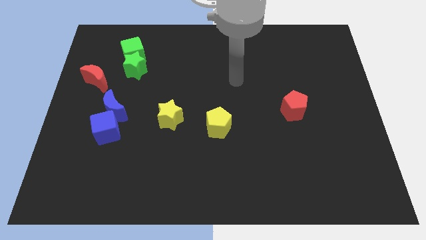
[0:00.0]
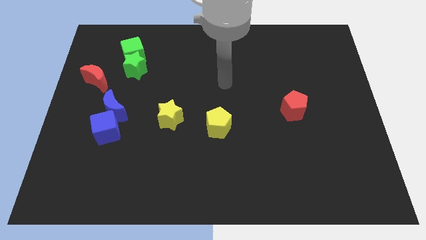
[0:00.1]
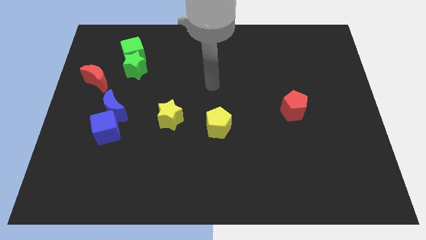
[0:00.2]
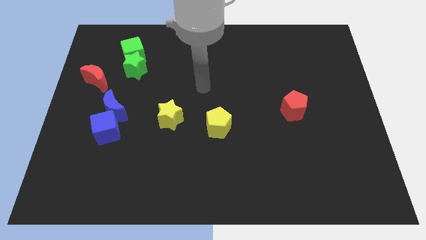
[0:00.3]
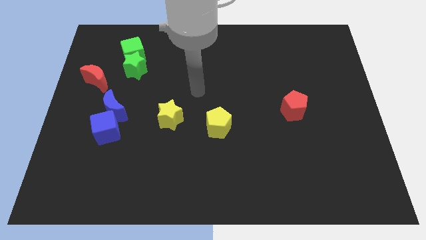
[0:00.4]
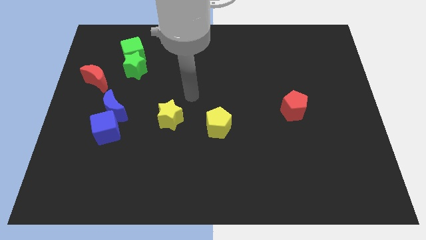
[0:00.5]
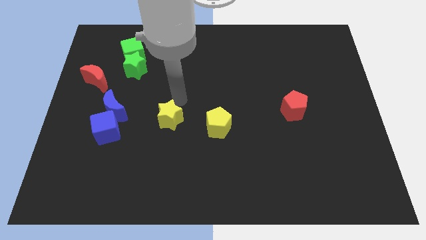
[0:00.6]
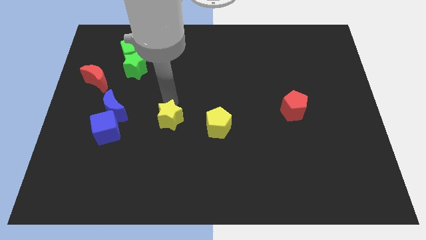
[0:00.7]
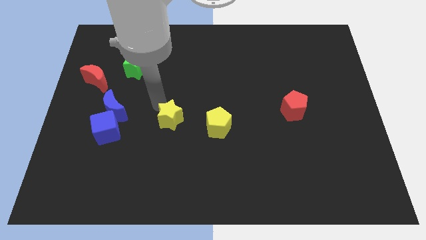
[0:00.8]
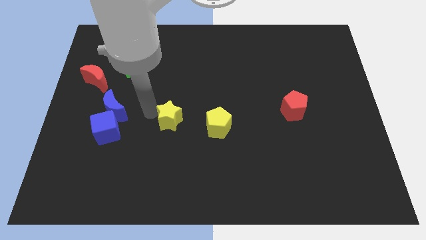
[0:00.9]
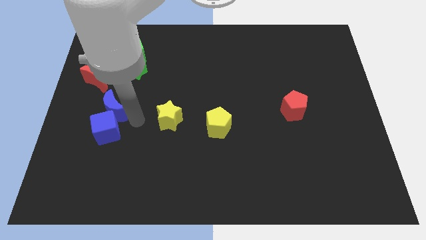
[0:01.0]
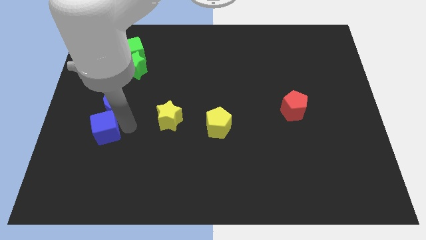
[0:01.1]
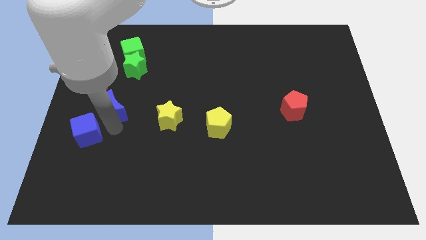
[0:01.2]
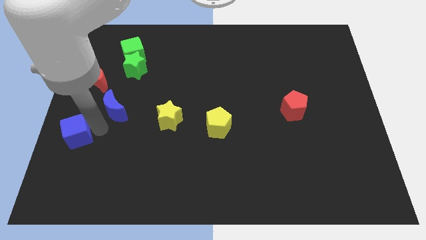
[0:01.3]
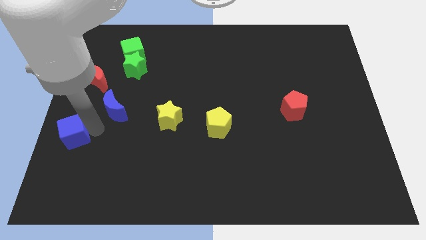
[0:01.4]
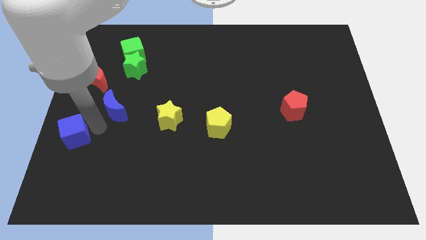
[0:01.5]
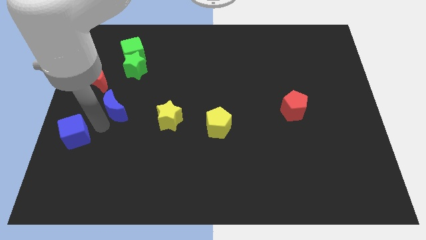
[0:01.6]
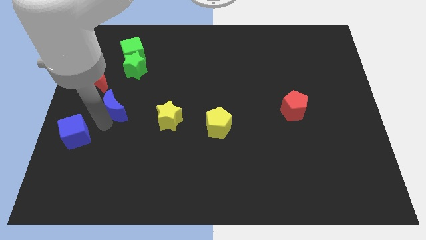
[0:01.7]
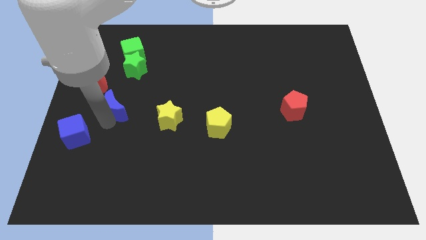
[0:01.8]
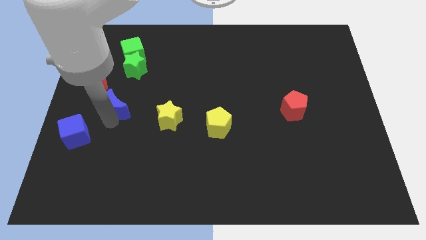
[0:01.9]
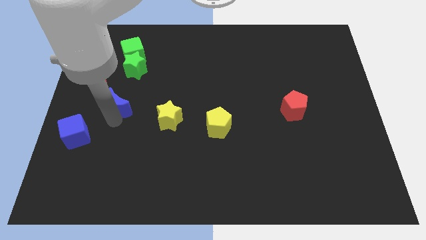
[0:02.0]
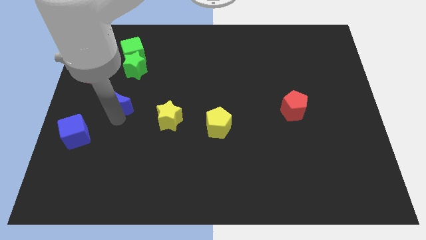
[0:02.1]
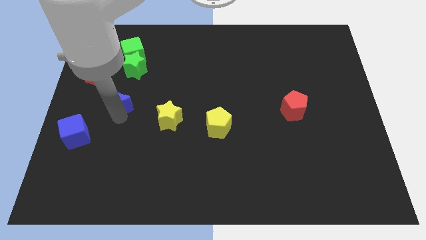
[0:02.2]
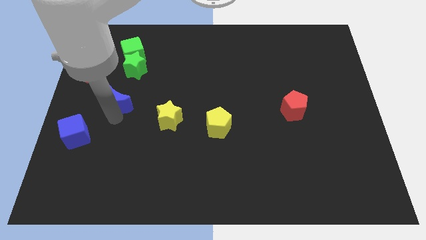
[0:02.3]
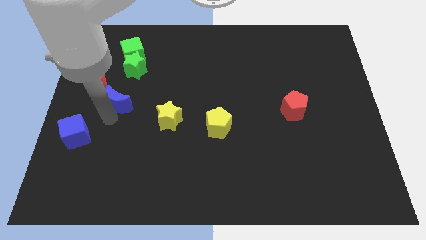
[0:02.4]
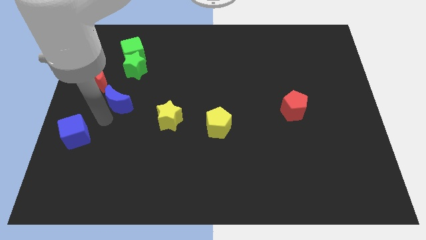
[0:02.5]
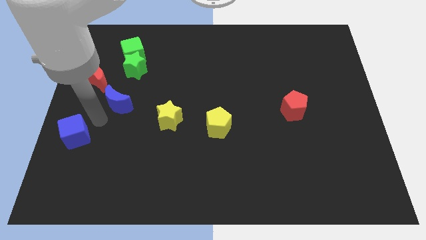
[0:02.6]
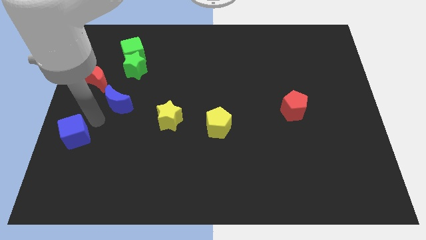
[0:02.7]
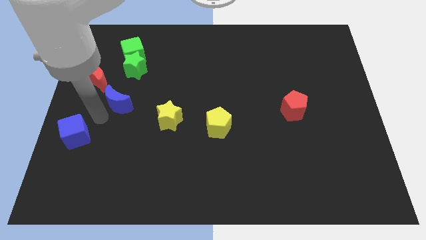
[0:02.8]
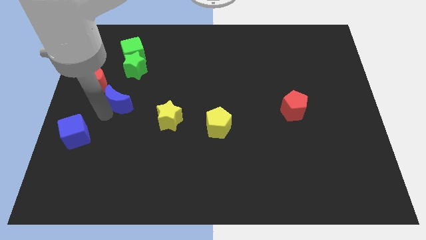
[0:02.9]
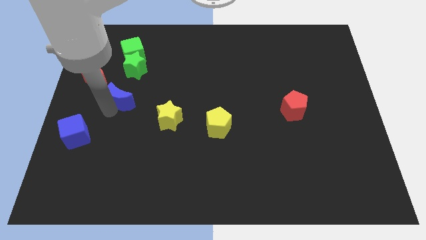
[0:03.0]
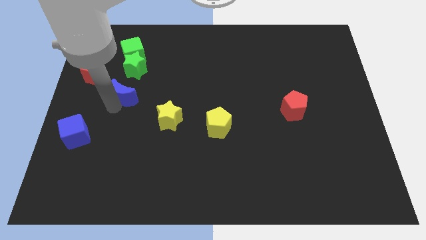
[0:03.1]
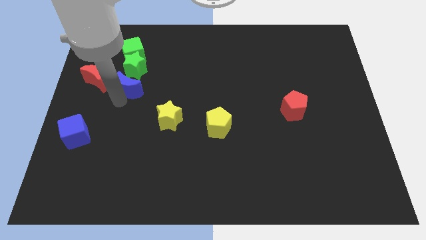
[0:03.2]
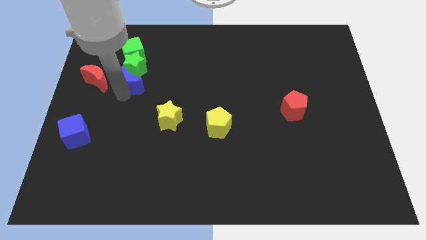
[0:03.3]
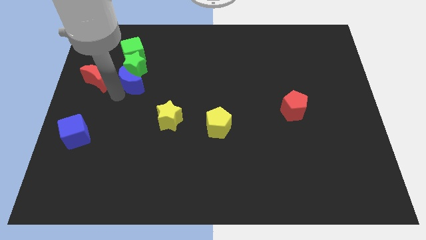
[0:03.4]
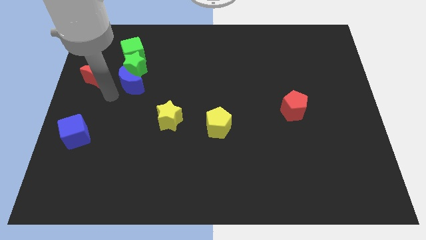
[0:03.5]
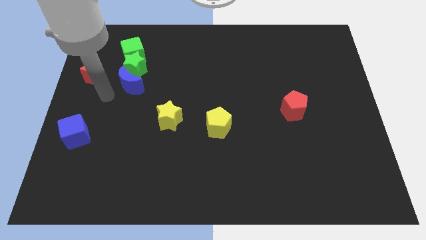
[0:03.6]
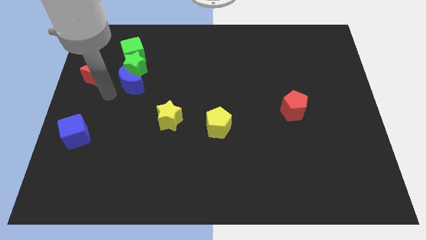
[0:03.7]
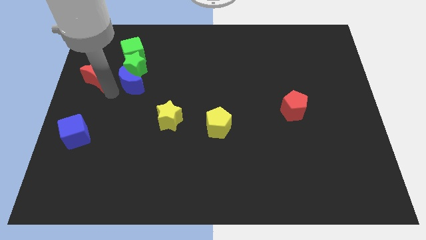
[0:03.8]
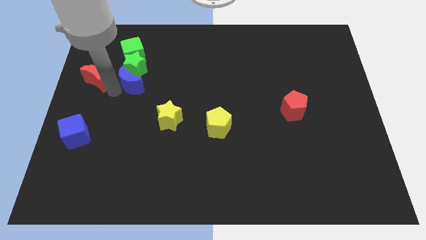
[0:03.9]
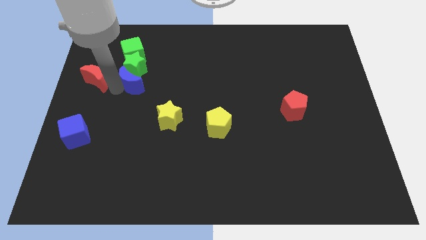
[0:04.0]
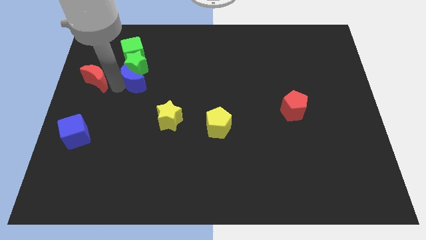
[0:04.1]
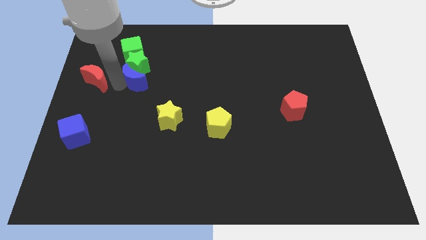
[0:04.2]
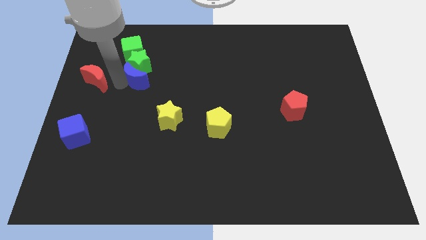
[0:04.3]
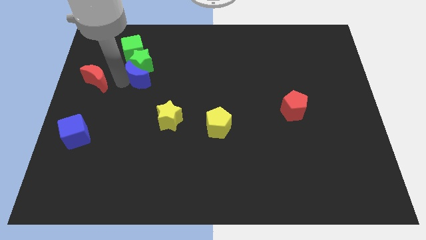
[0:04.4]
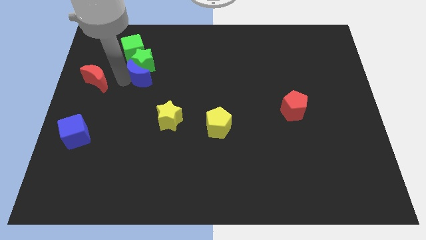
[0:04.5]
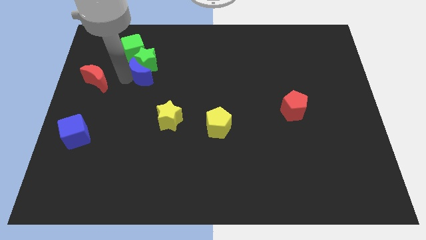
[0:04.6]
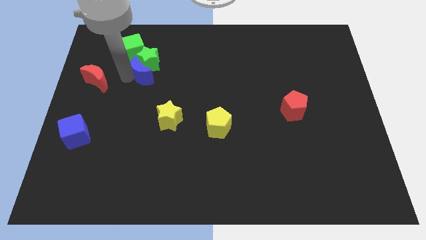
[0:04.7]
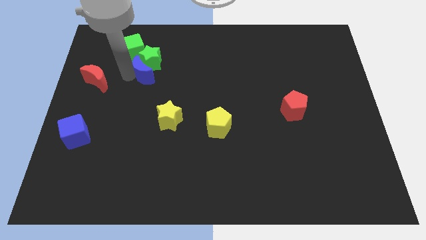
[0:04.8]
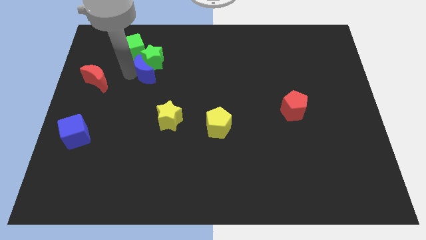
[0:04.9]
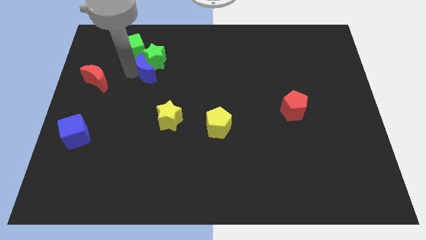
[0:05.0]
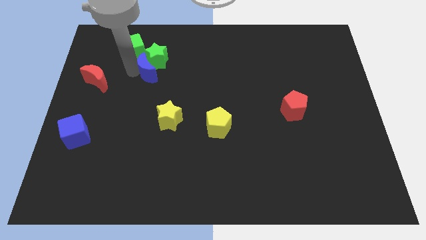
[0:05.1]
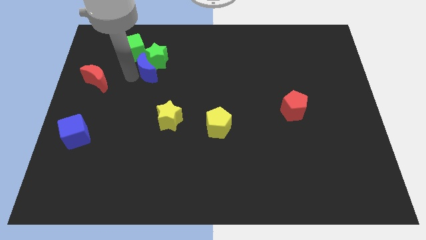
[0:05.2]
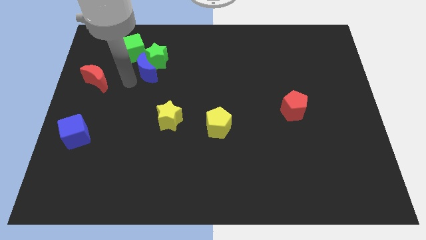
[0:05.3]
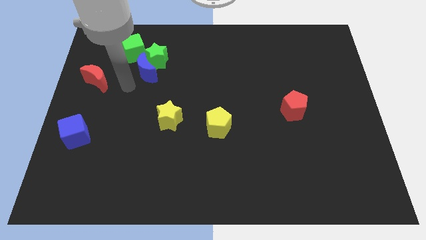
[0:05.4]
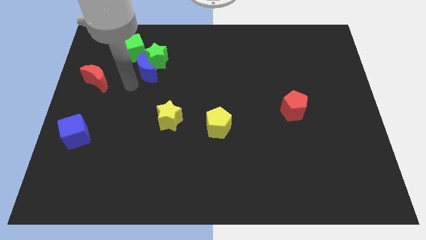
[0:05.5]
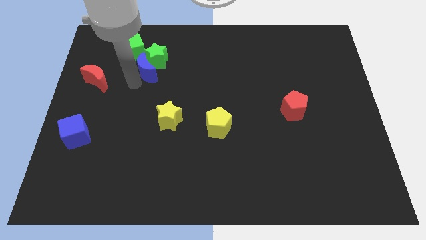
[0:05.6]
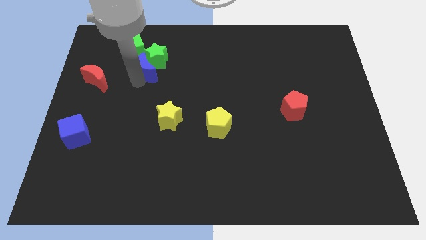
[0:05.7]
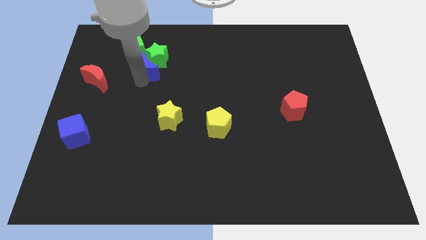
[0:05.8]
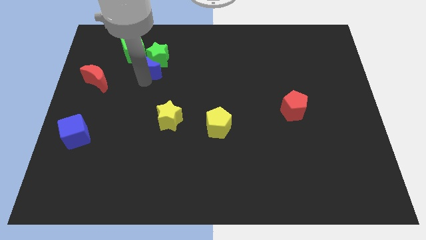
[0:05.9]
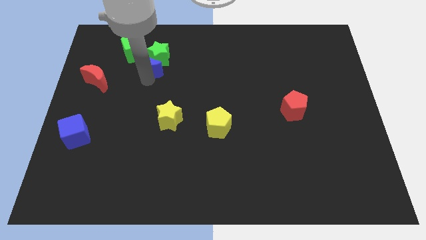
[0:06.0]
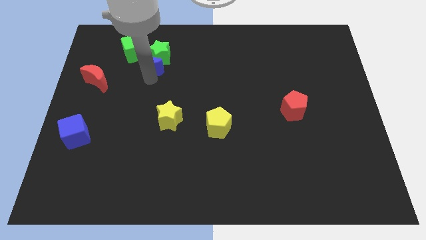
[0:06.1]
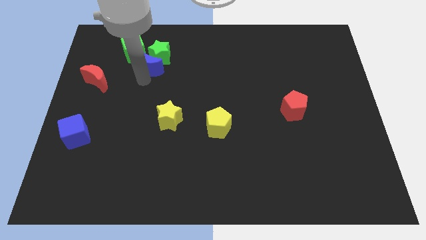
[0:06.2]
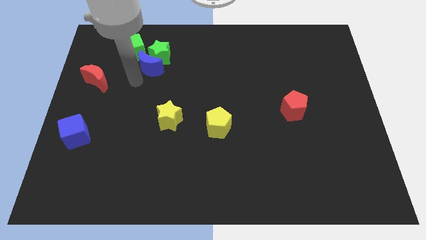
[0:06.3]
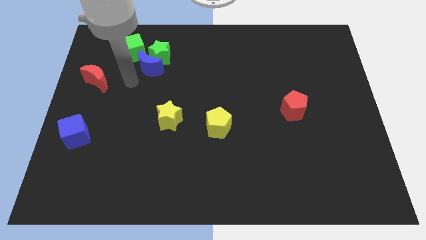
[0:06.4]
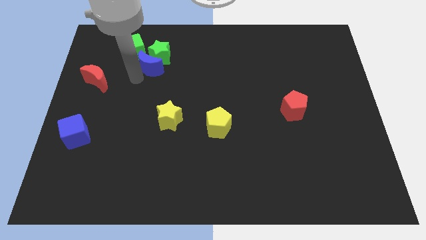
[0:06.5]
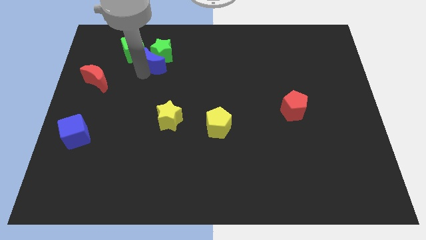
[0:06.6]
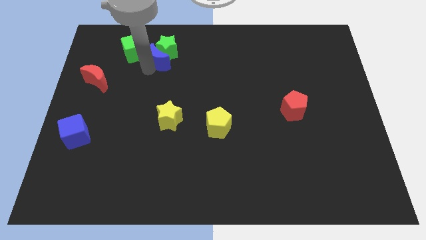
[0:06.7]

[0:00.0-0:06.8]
slide the blue moon just right of the green cube

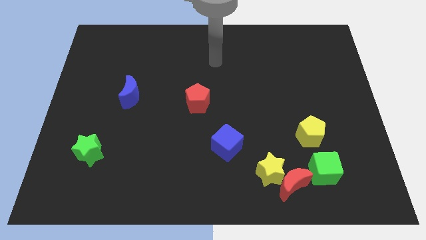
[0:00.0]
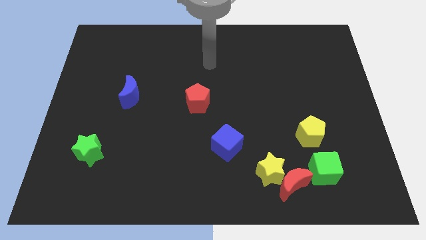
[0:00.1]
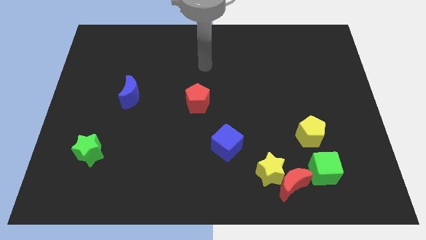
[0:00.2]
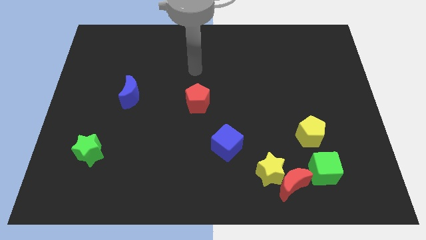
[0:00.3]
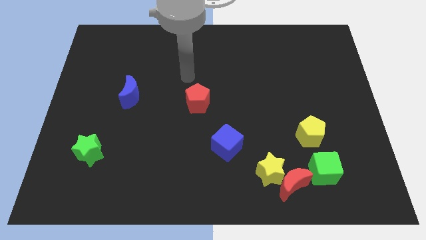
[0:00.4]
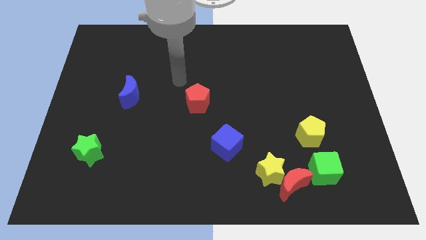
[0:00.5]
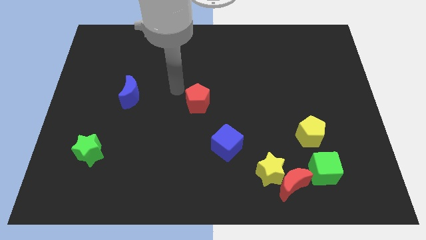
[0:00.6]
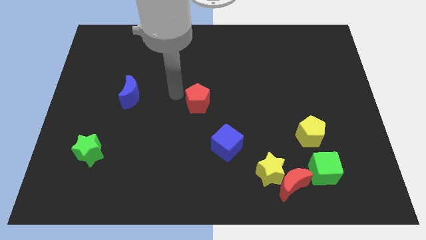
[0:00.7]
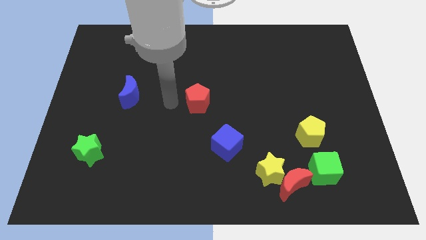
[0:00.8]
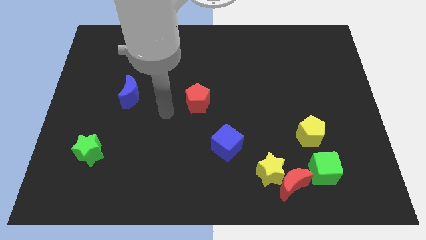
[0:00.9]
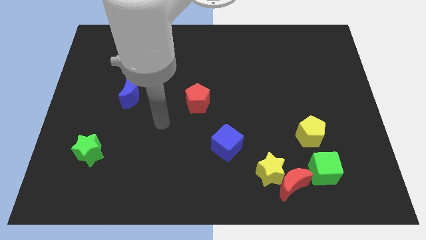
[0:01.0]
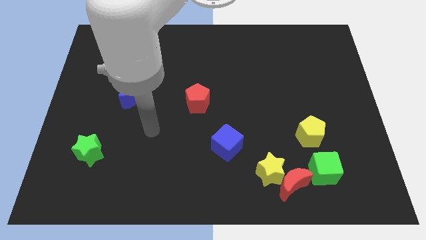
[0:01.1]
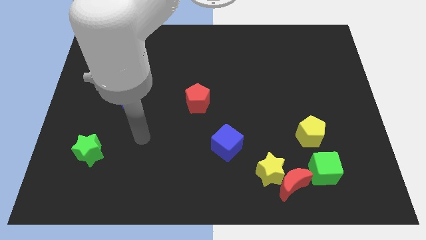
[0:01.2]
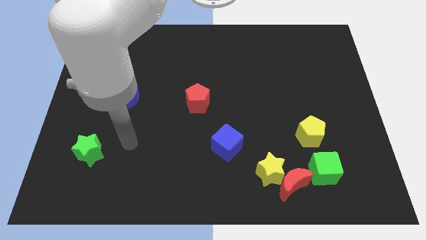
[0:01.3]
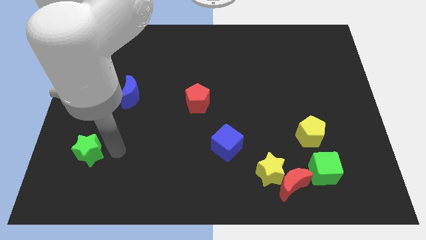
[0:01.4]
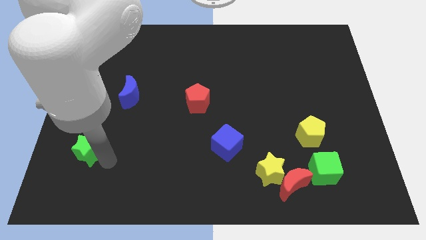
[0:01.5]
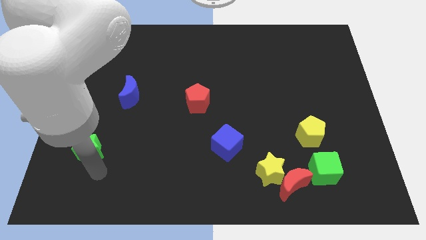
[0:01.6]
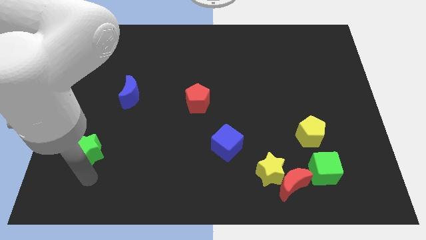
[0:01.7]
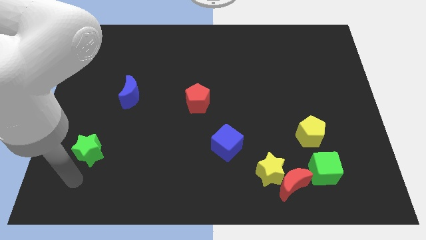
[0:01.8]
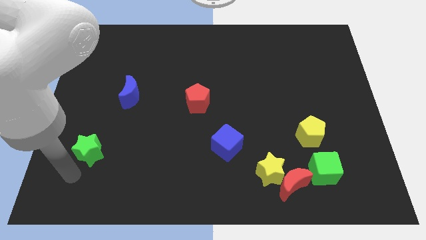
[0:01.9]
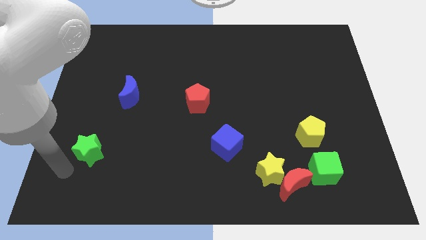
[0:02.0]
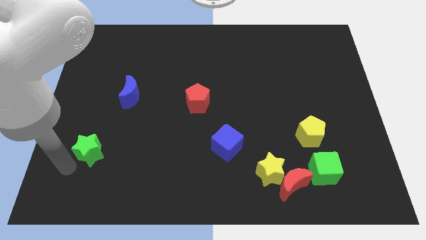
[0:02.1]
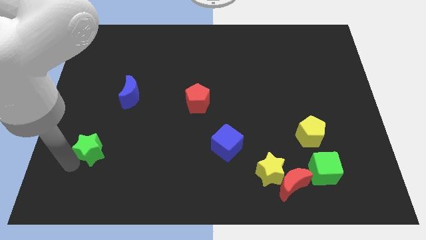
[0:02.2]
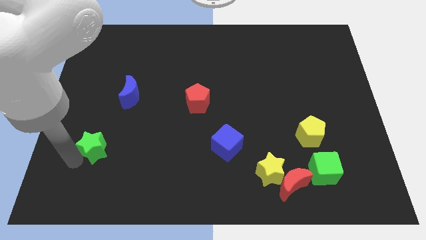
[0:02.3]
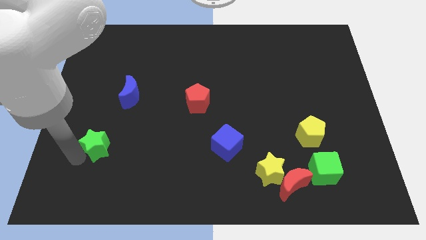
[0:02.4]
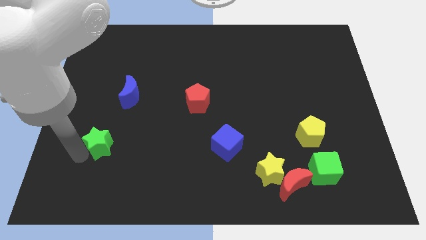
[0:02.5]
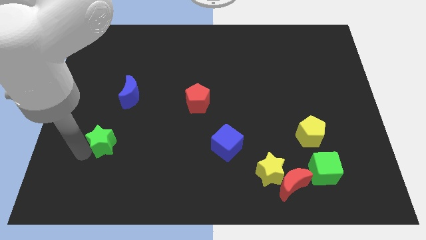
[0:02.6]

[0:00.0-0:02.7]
move the green star to the bottom side of the blue moon
